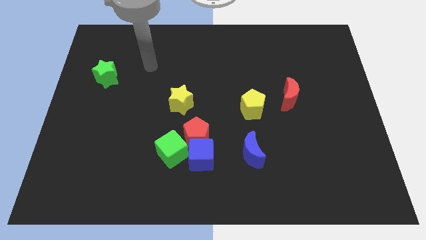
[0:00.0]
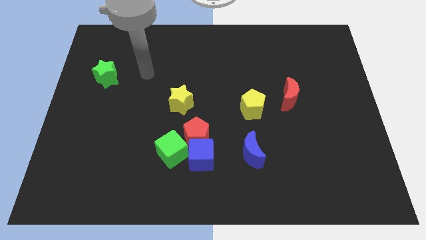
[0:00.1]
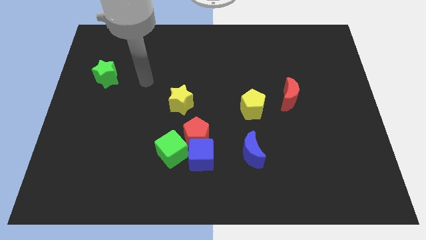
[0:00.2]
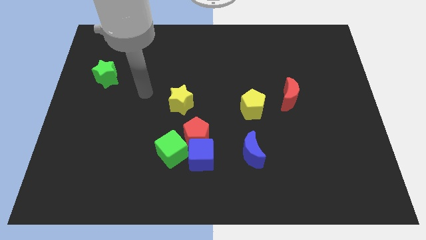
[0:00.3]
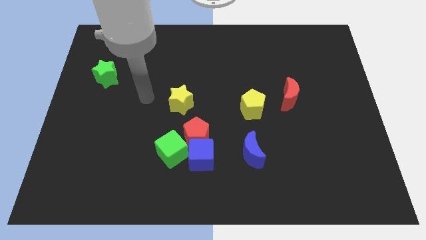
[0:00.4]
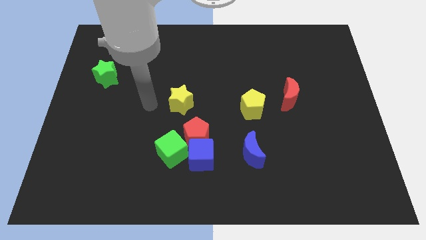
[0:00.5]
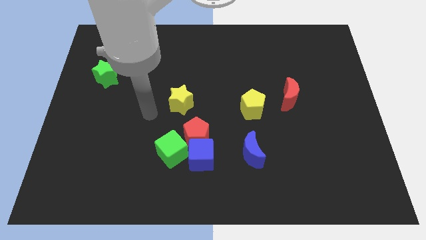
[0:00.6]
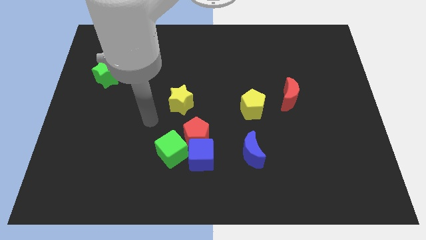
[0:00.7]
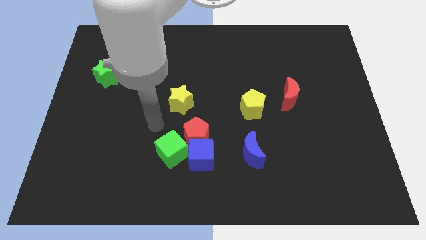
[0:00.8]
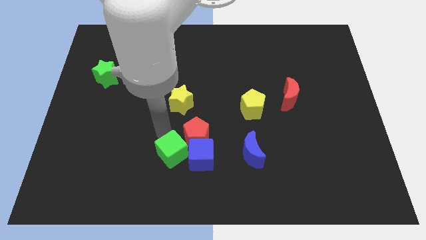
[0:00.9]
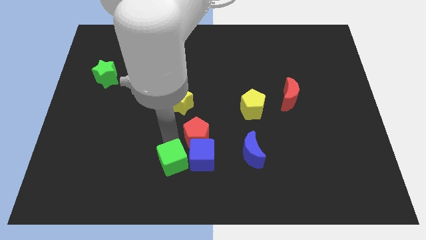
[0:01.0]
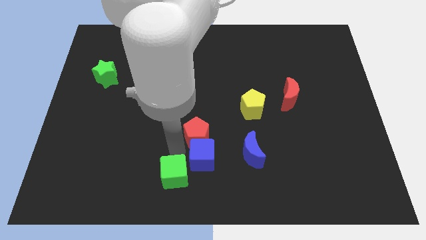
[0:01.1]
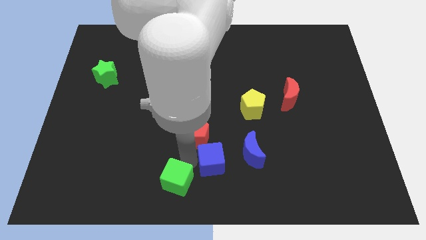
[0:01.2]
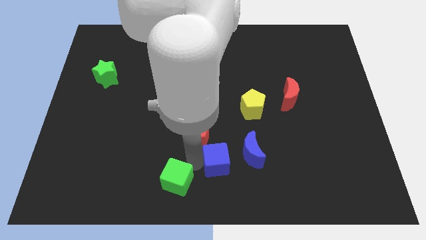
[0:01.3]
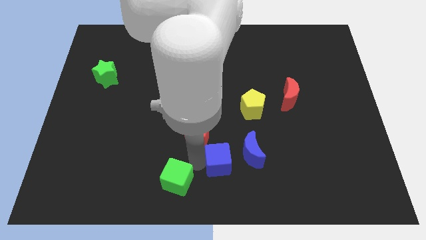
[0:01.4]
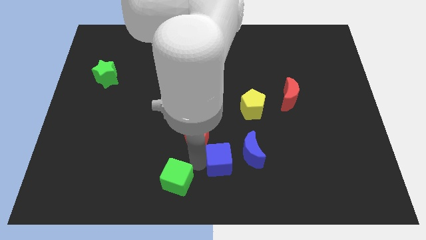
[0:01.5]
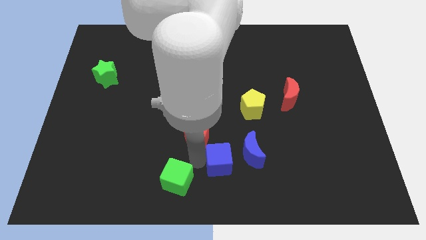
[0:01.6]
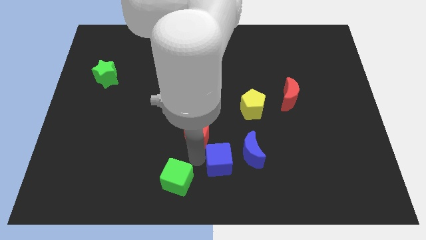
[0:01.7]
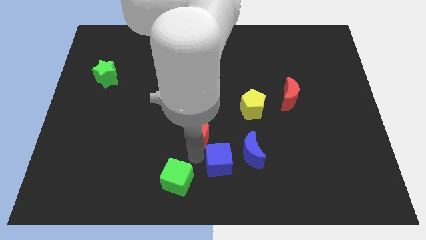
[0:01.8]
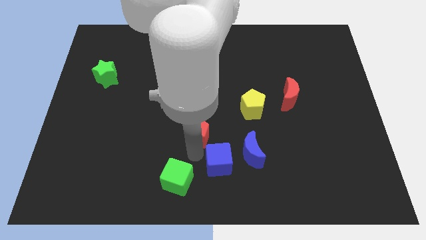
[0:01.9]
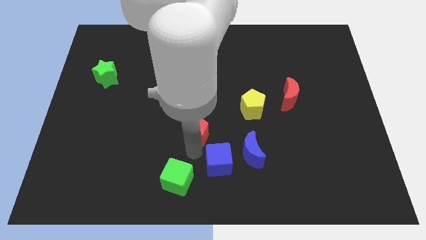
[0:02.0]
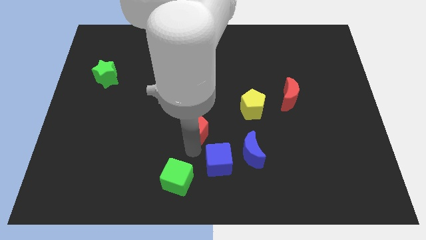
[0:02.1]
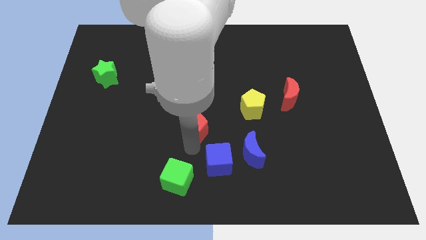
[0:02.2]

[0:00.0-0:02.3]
separate the red pentagon from the blue cube and green cube

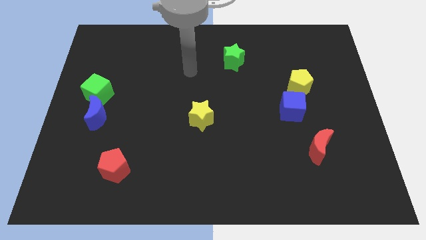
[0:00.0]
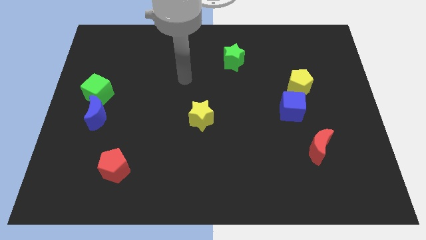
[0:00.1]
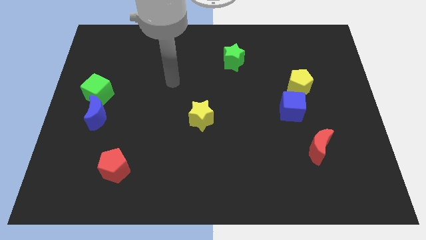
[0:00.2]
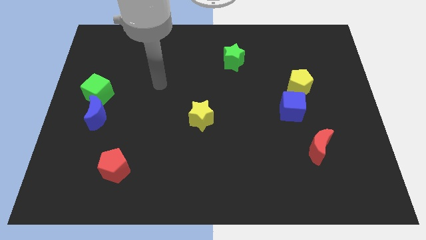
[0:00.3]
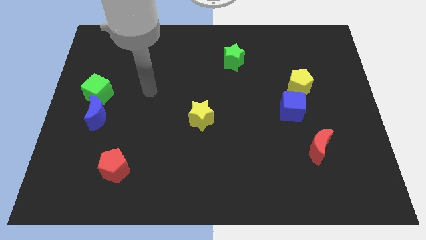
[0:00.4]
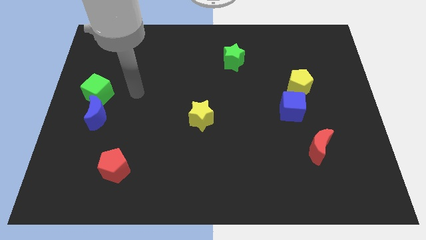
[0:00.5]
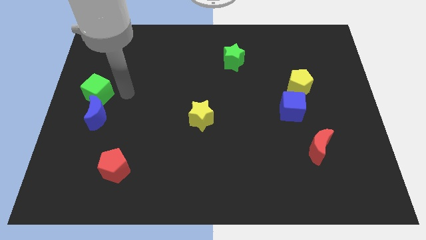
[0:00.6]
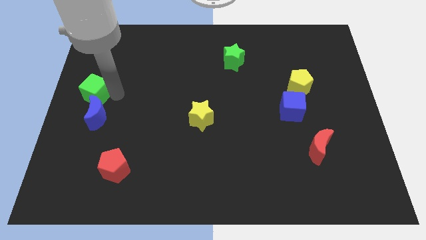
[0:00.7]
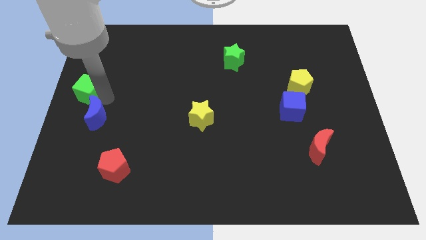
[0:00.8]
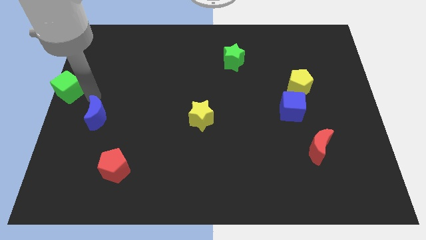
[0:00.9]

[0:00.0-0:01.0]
move the blue moon away from the green cube

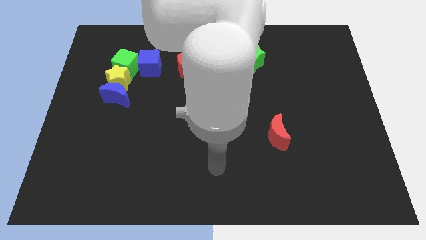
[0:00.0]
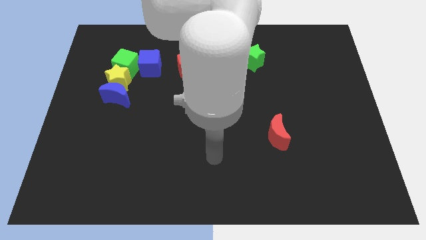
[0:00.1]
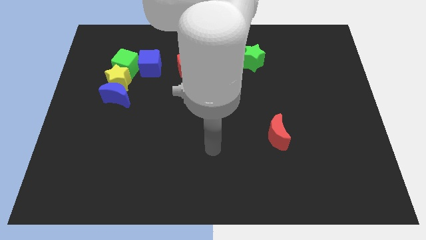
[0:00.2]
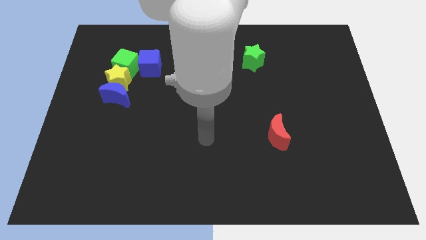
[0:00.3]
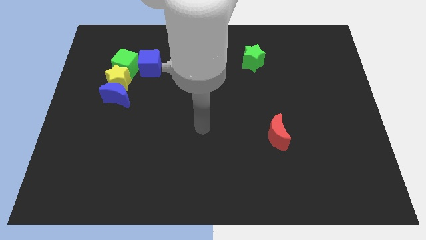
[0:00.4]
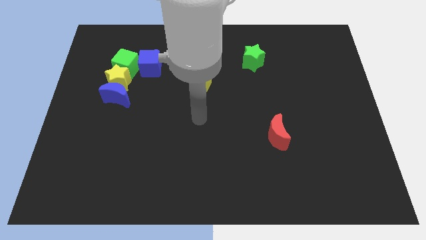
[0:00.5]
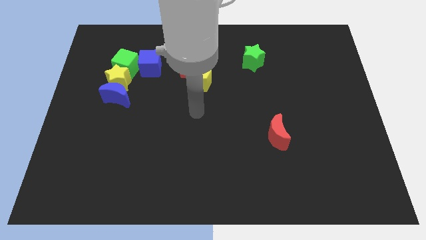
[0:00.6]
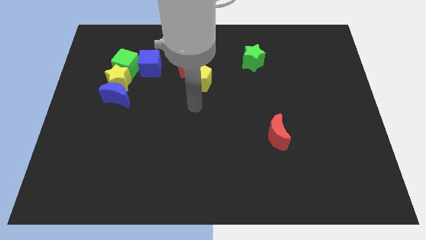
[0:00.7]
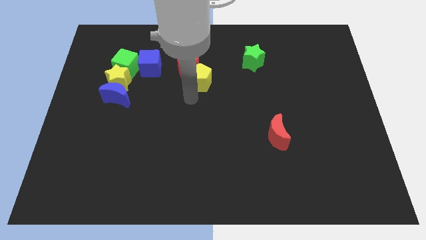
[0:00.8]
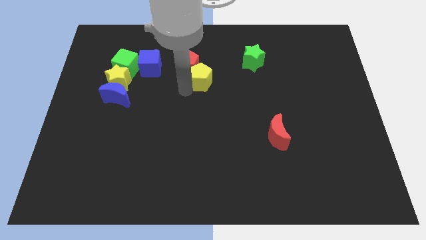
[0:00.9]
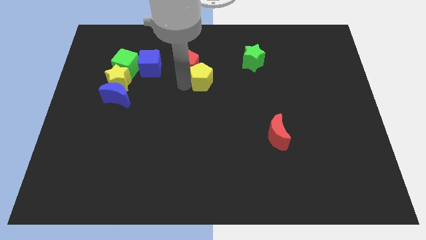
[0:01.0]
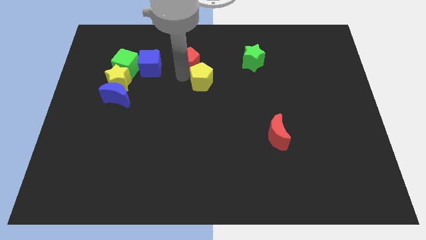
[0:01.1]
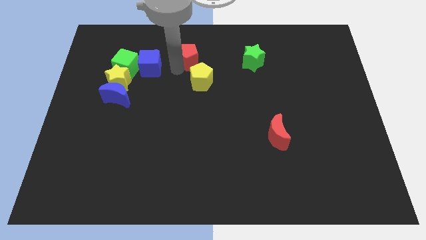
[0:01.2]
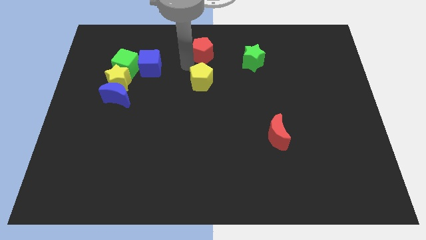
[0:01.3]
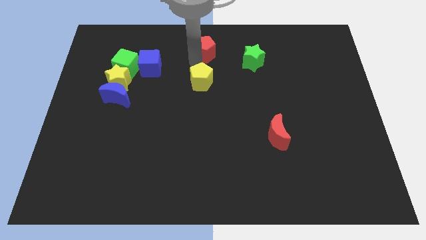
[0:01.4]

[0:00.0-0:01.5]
move the yellow pentagon away from the red pentagon

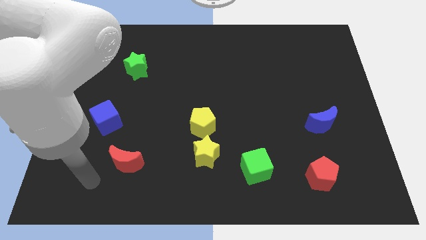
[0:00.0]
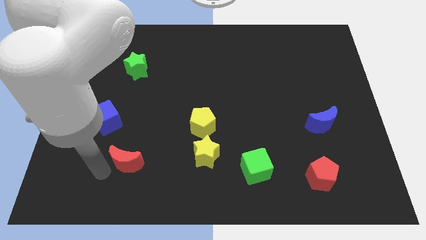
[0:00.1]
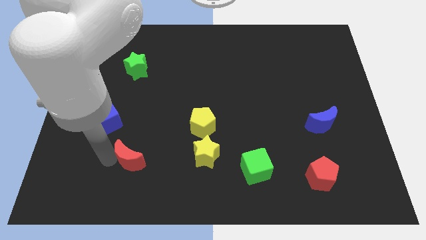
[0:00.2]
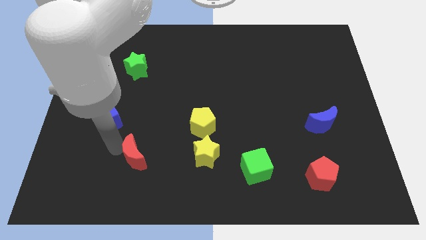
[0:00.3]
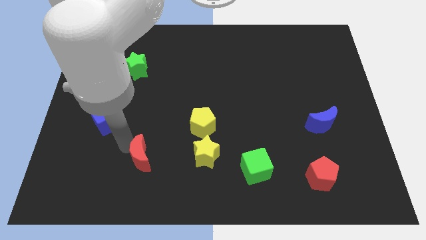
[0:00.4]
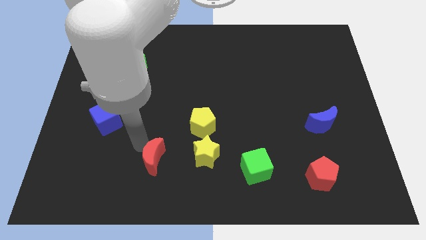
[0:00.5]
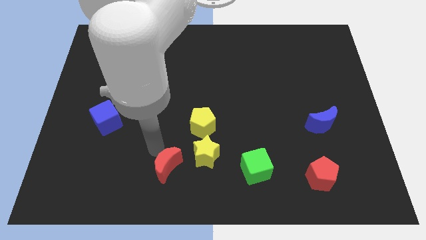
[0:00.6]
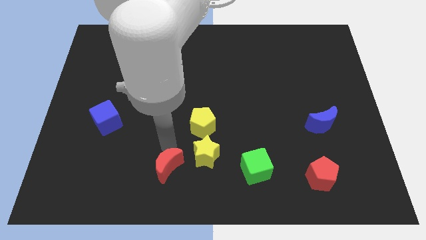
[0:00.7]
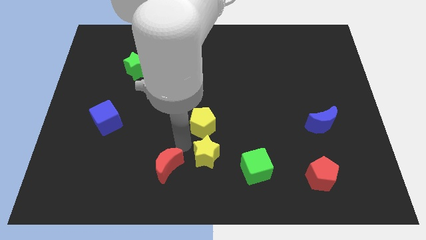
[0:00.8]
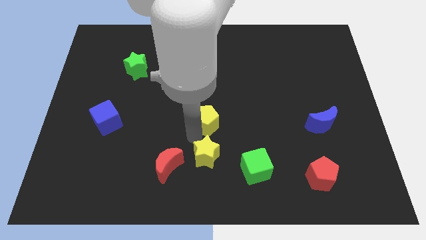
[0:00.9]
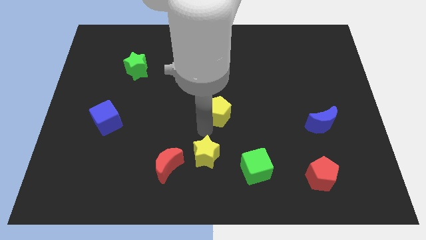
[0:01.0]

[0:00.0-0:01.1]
pull the yellow star apart from the yellow pentagon

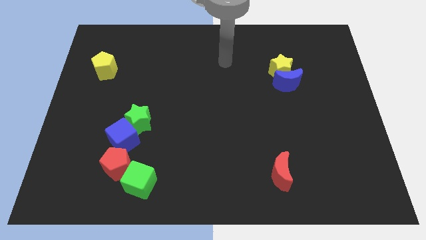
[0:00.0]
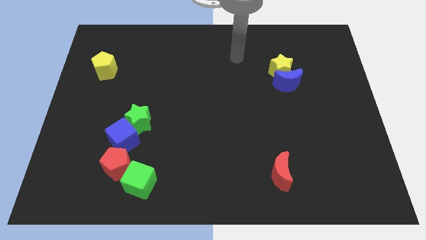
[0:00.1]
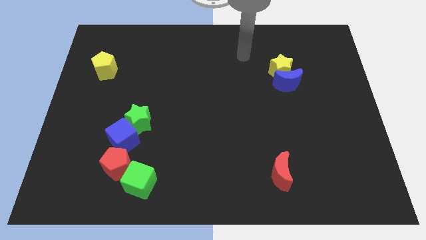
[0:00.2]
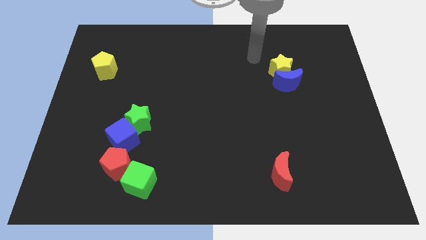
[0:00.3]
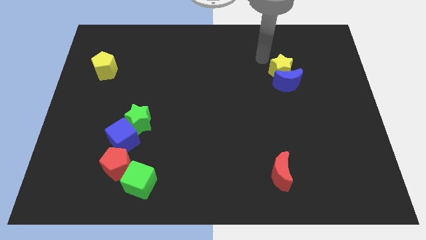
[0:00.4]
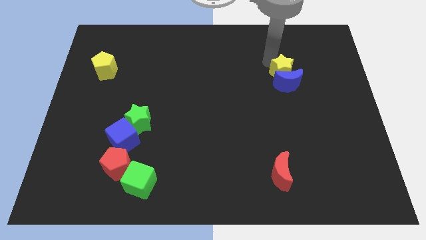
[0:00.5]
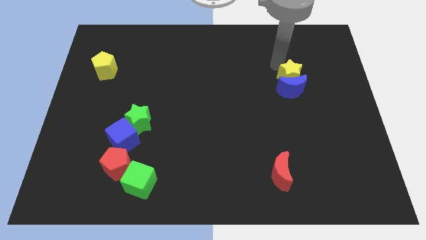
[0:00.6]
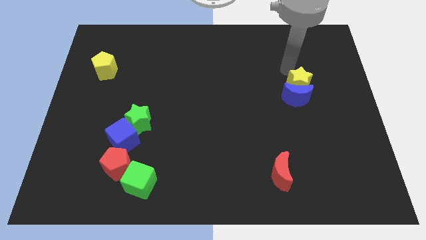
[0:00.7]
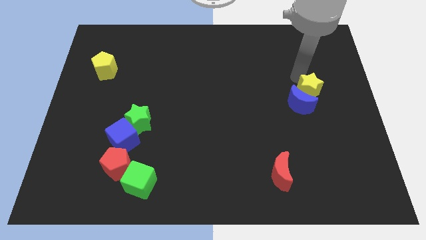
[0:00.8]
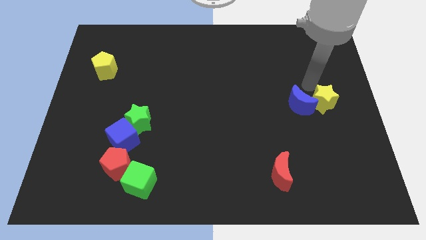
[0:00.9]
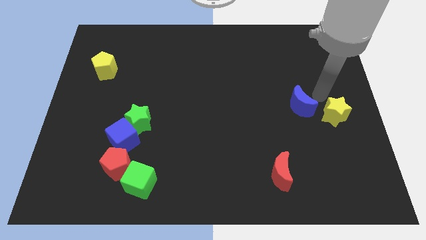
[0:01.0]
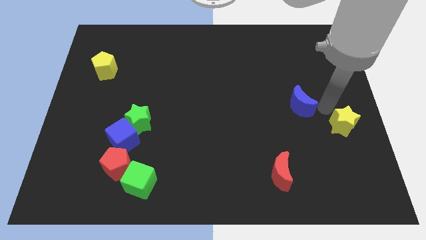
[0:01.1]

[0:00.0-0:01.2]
separate the blue moon from the yellow star

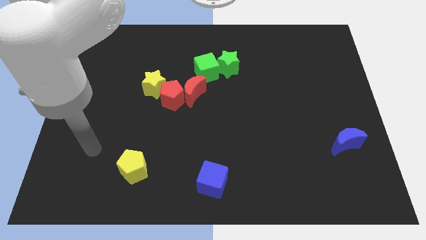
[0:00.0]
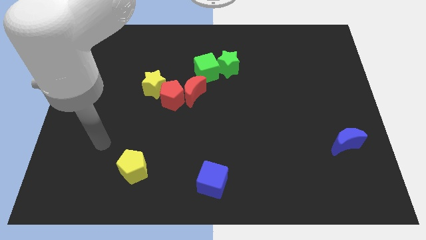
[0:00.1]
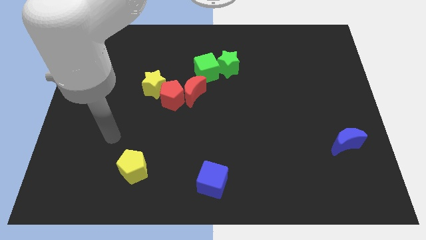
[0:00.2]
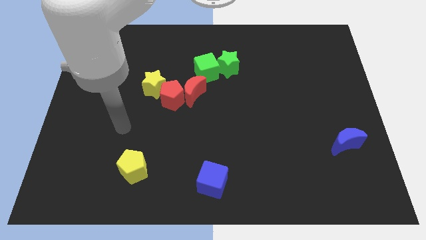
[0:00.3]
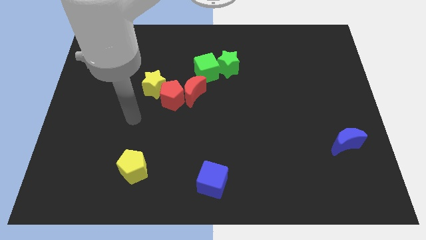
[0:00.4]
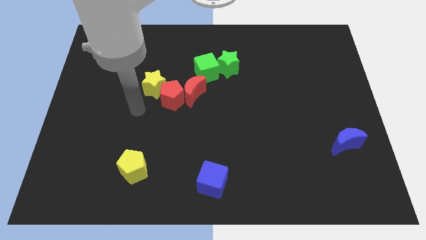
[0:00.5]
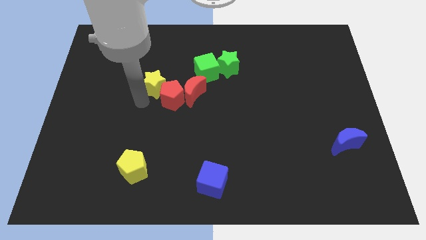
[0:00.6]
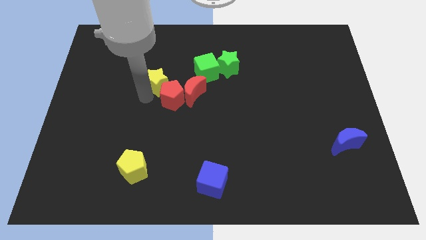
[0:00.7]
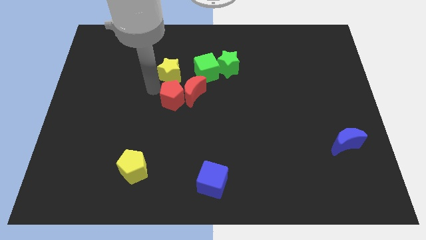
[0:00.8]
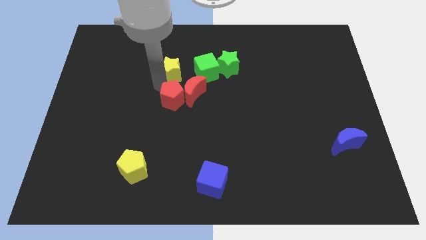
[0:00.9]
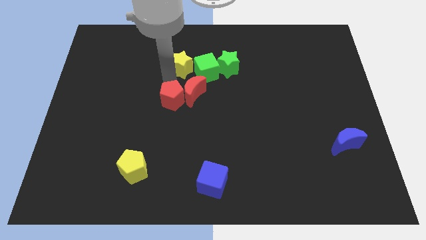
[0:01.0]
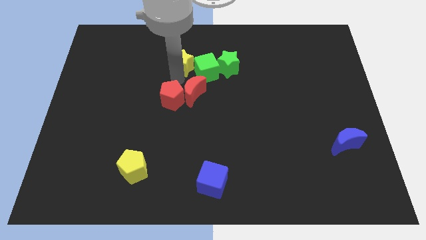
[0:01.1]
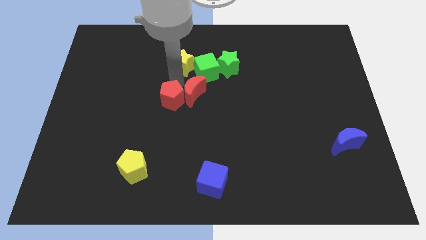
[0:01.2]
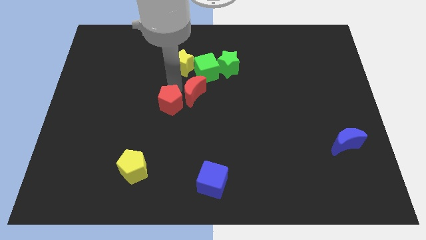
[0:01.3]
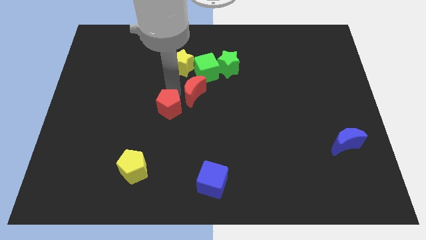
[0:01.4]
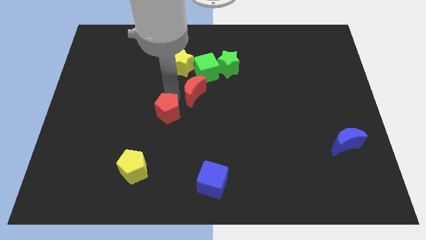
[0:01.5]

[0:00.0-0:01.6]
pull the red pentagon apart from the yellow star and red moon

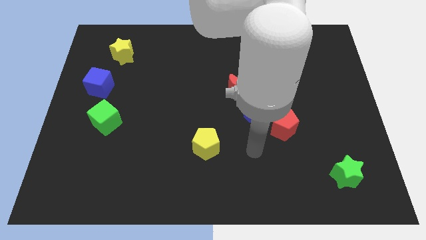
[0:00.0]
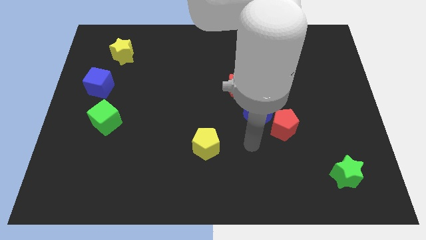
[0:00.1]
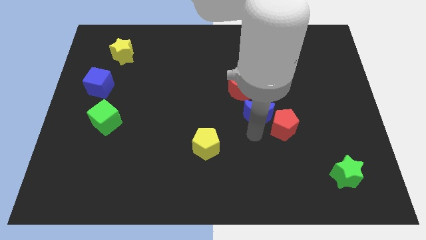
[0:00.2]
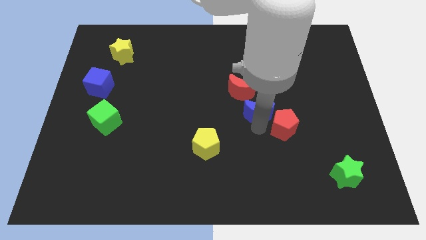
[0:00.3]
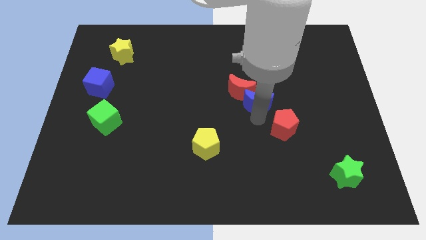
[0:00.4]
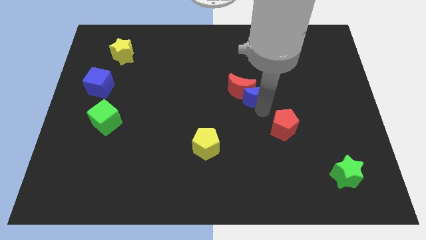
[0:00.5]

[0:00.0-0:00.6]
separate the red pentagon from the blue moon

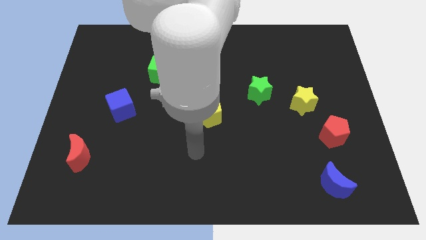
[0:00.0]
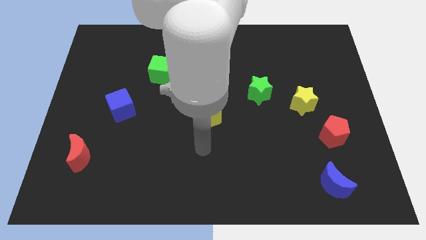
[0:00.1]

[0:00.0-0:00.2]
separate the red pentagon from the yellow star
